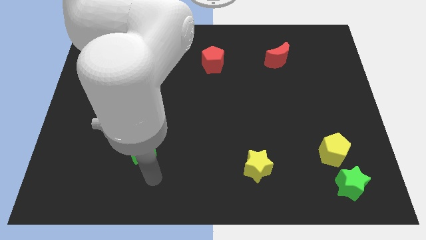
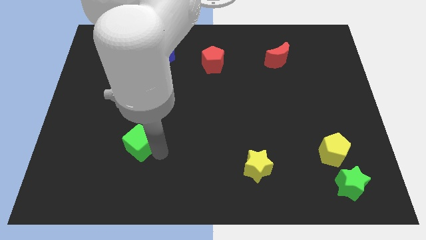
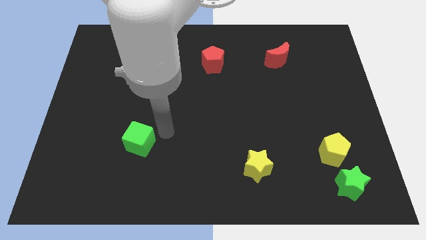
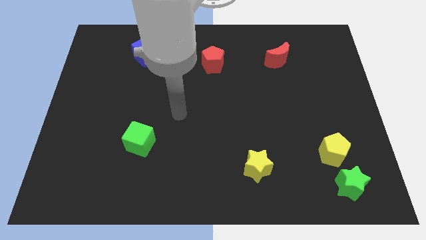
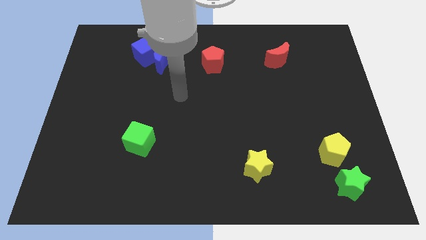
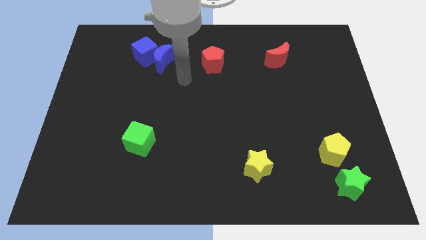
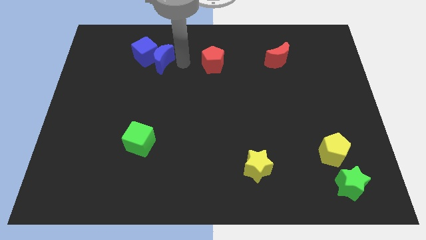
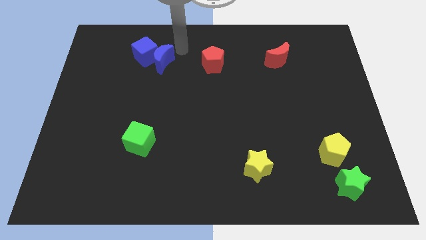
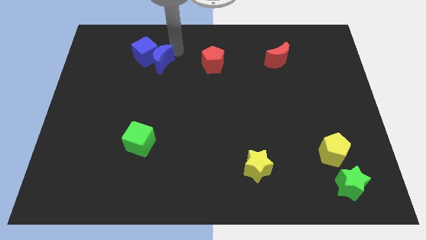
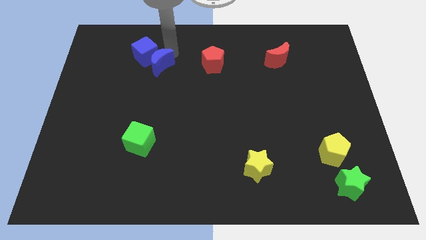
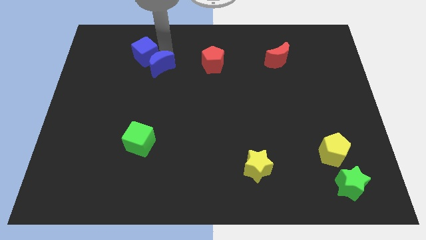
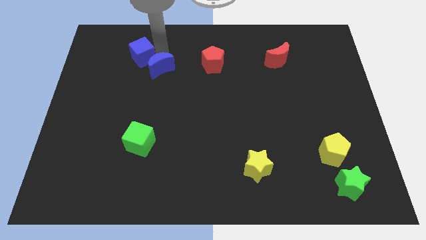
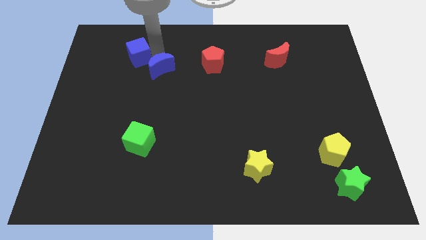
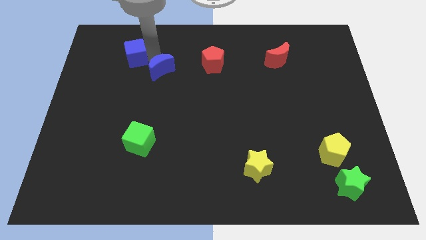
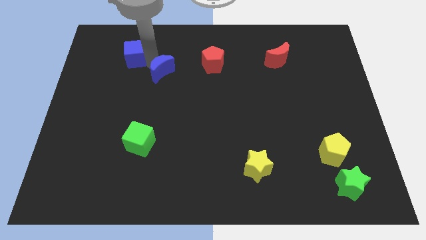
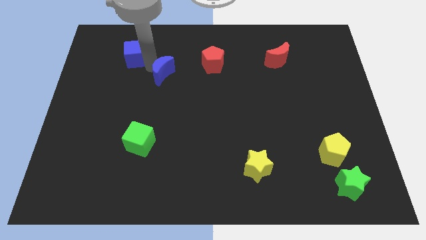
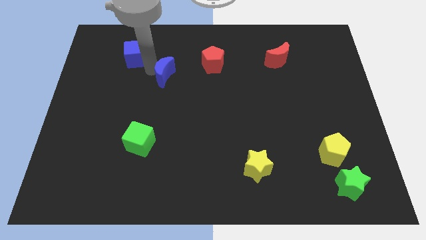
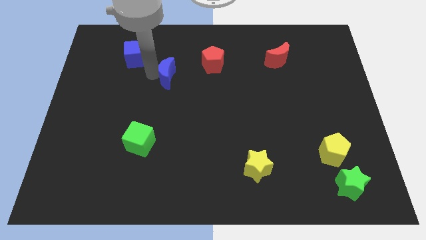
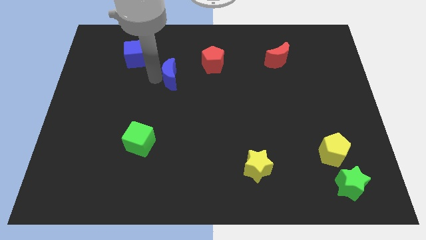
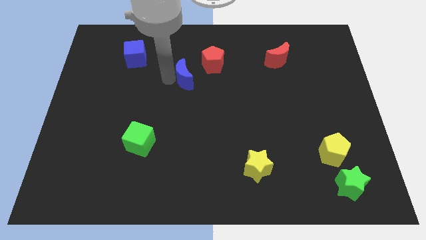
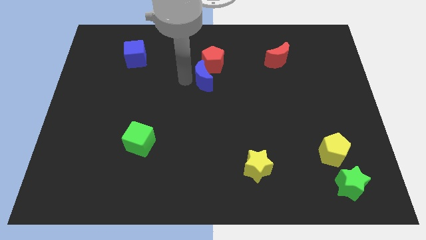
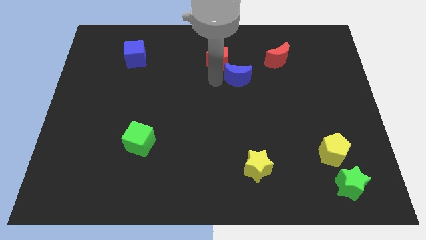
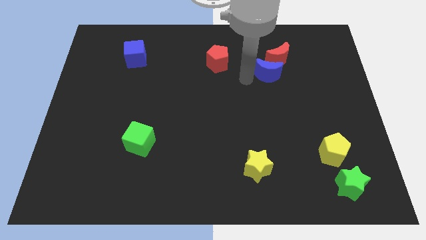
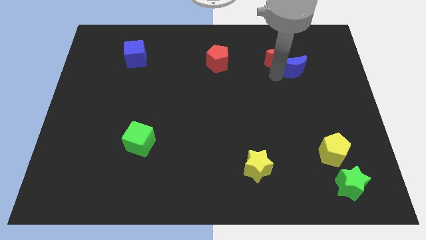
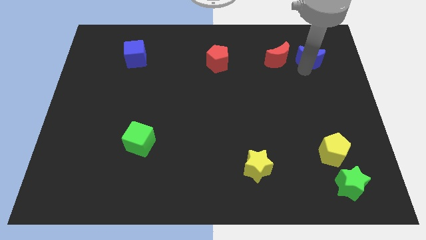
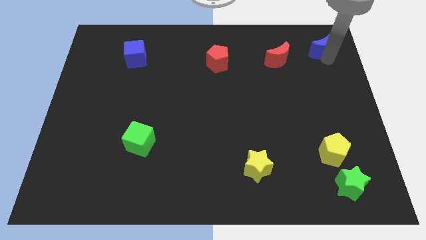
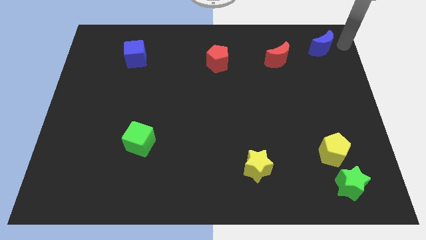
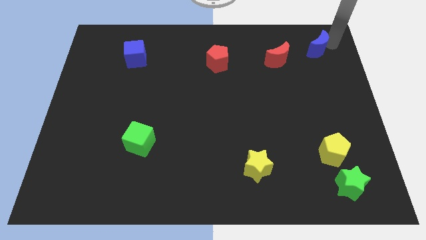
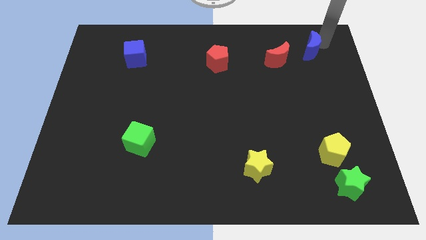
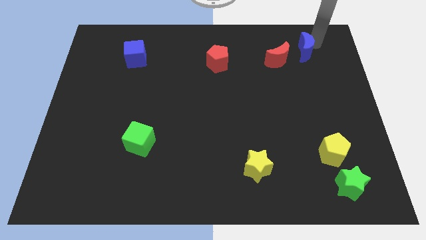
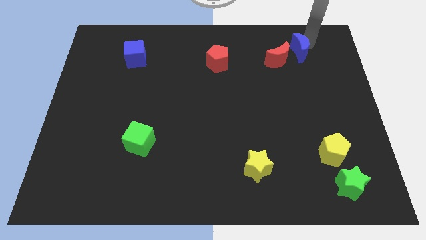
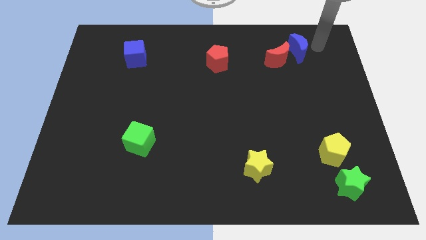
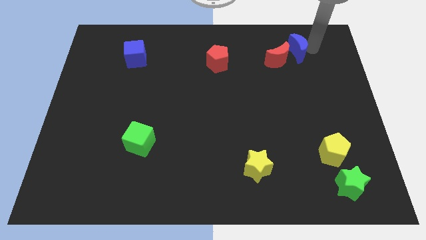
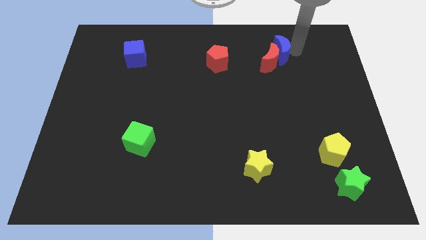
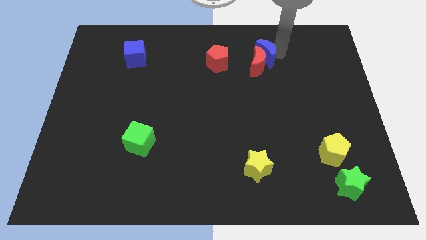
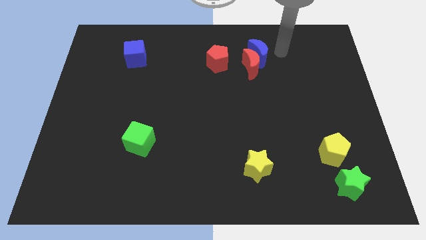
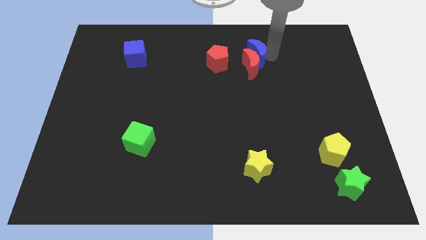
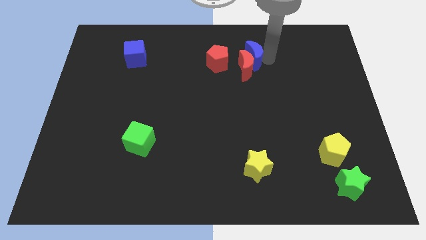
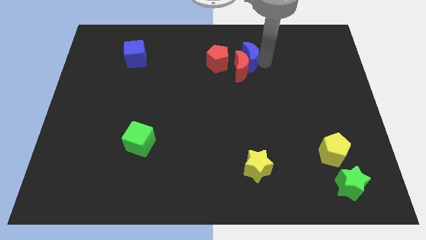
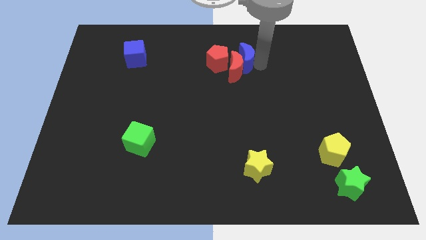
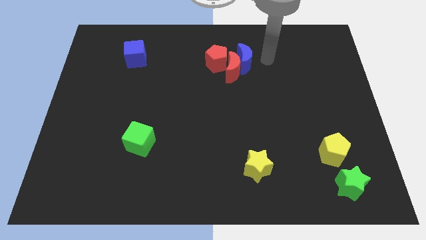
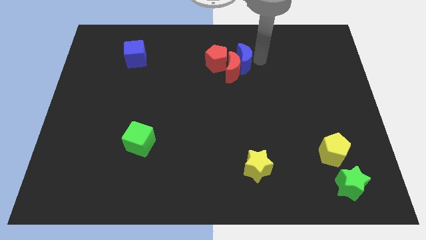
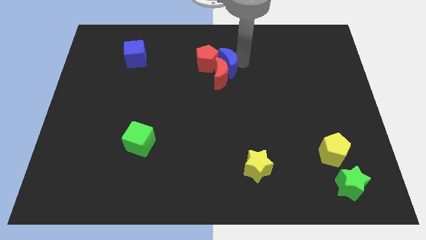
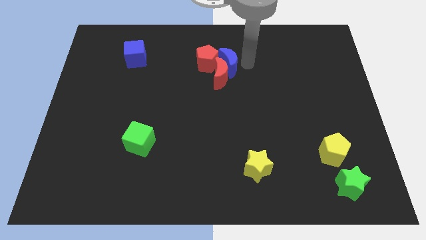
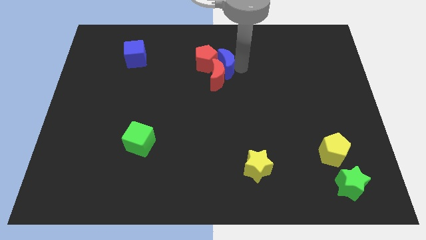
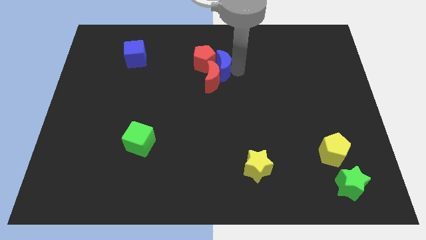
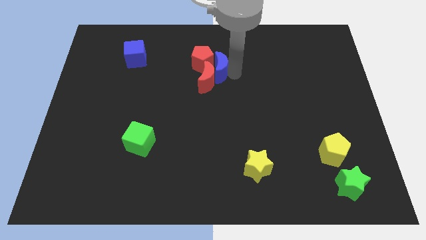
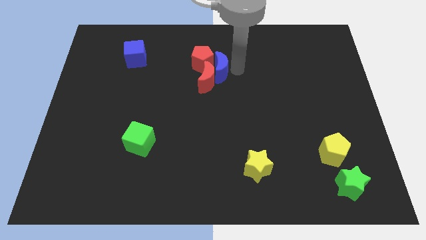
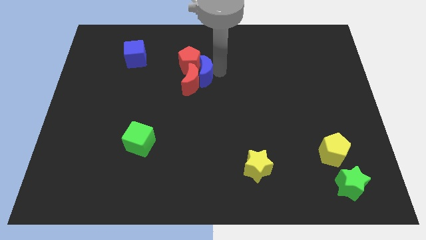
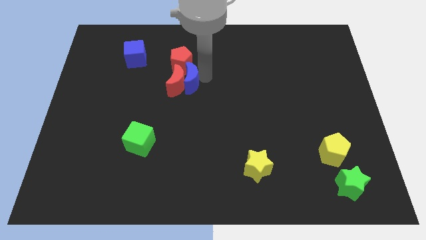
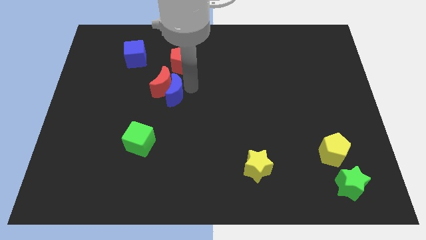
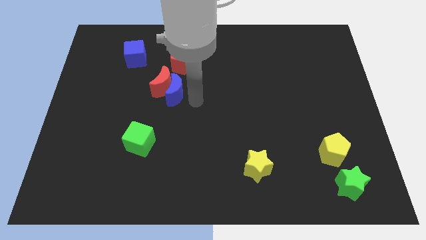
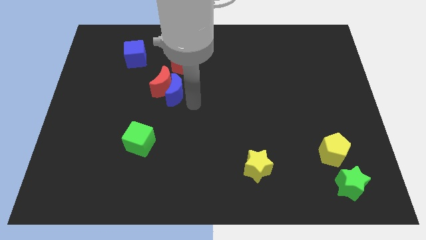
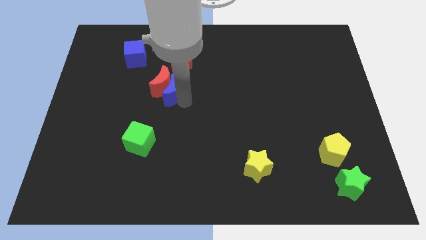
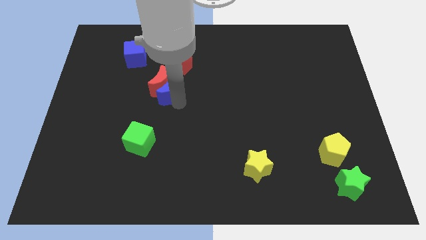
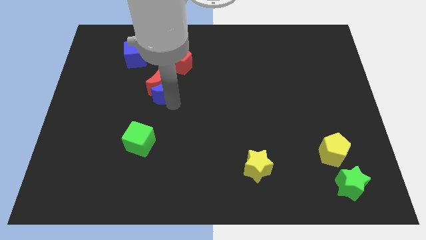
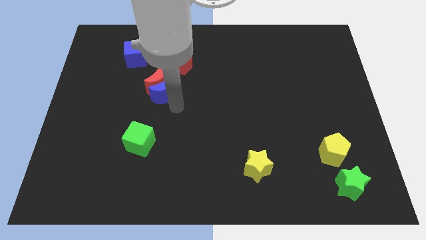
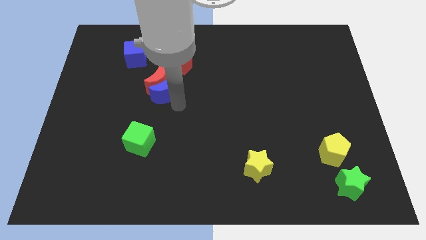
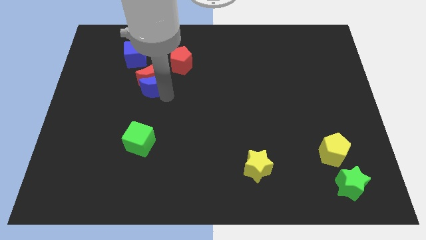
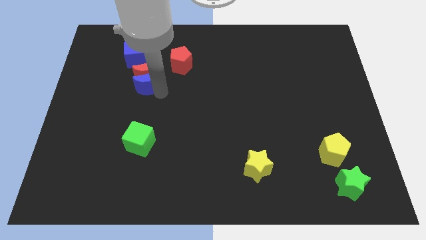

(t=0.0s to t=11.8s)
move the blue moon slightly down and left

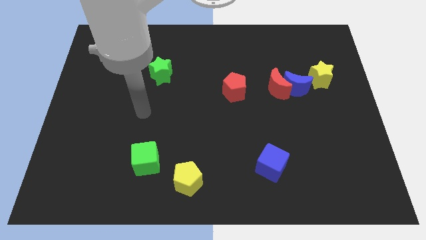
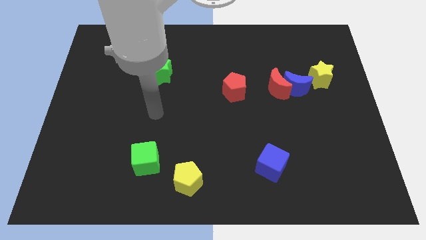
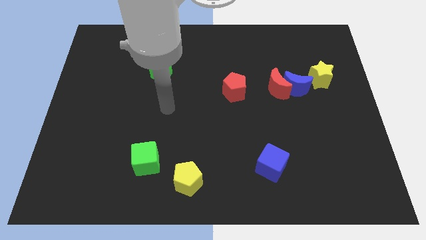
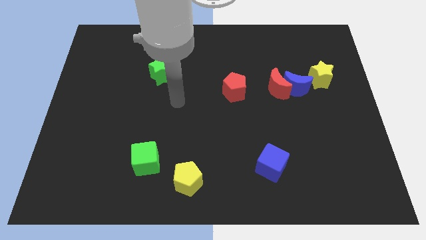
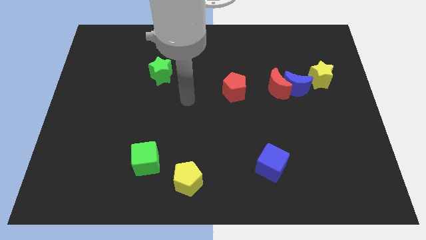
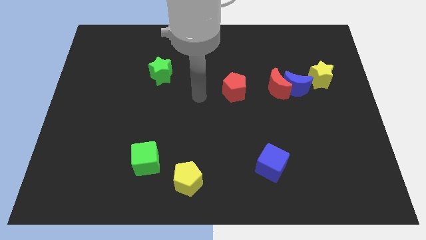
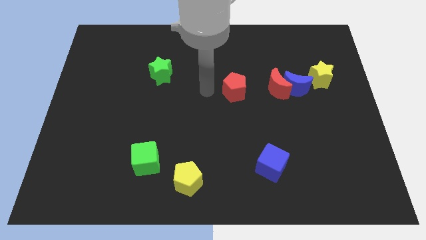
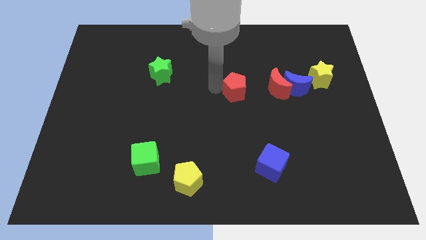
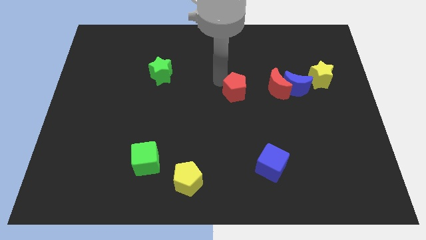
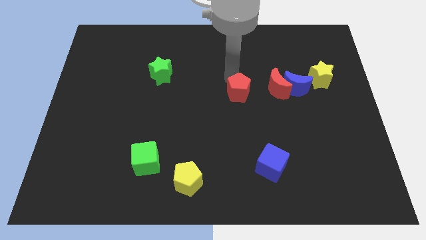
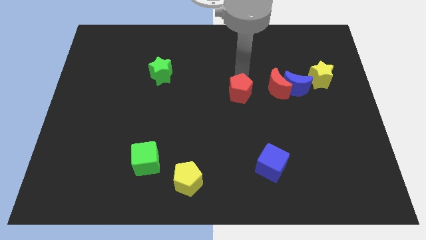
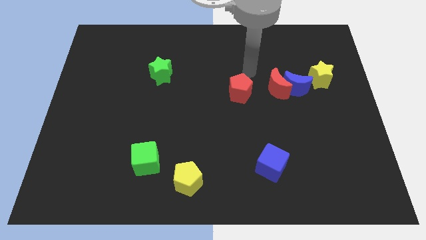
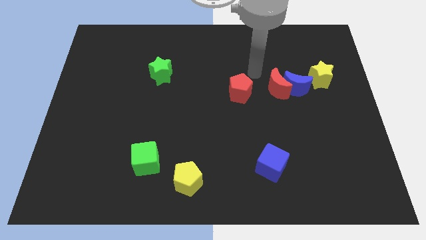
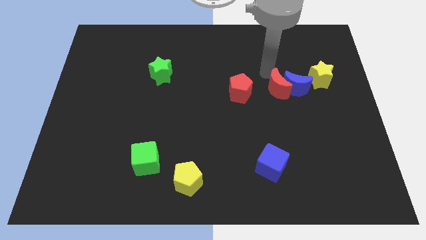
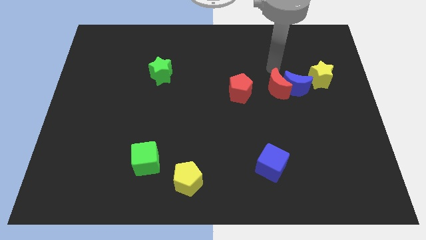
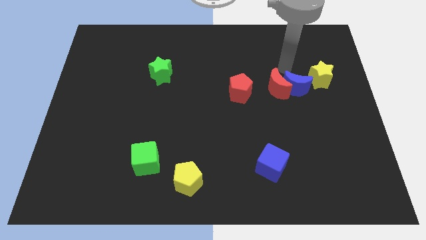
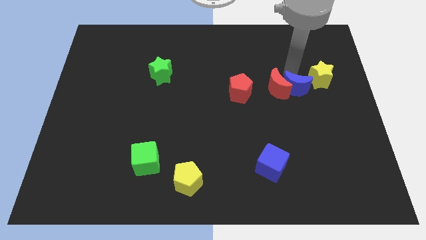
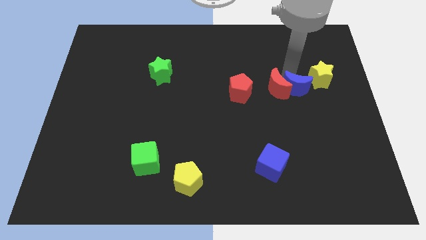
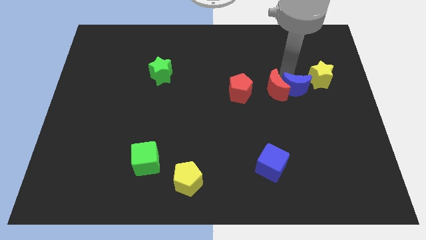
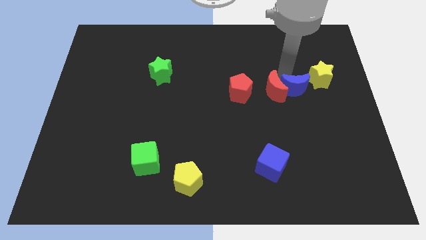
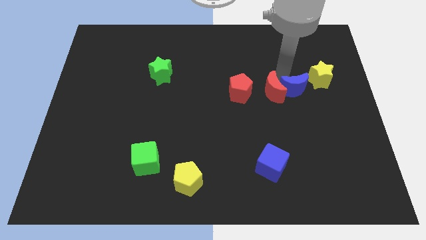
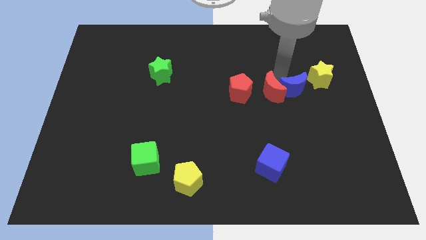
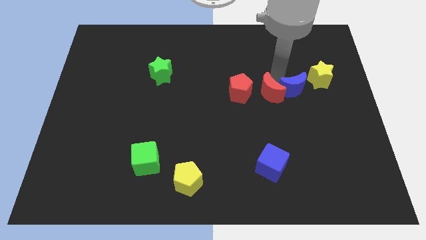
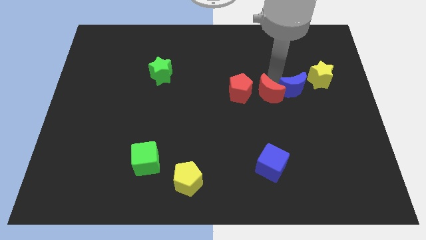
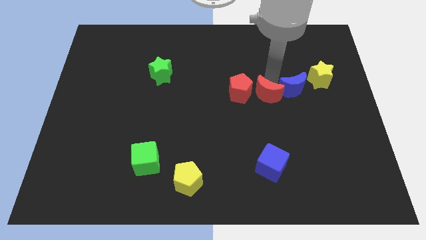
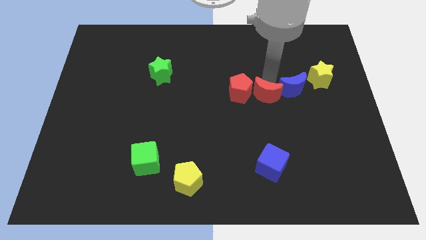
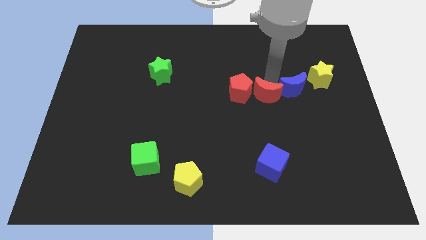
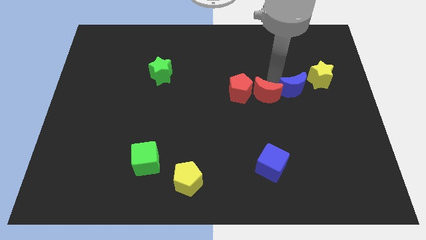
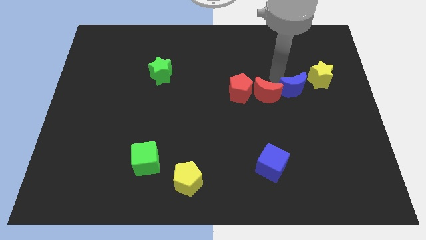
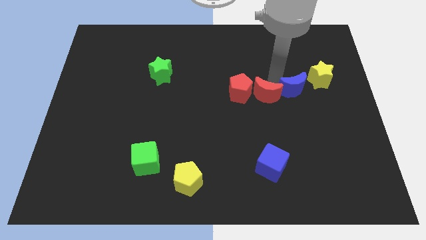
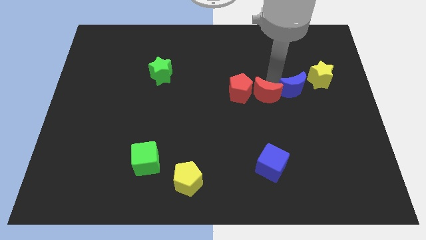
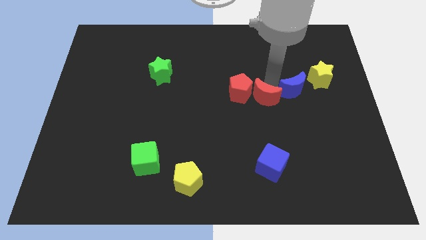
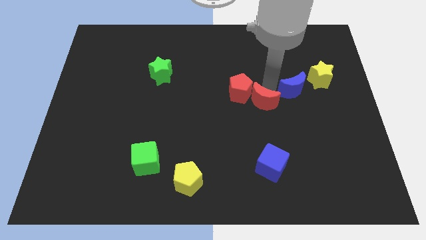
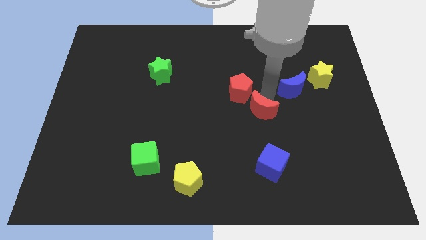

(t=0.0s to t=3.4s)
slightly push the red moon diagonally down and to the left
